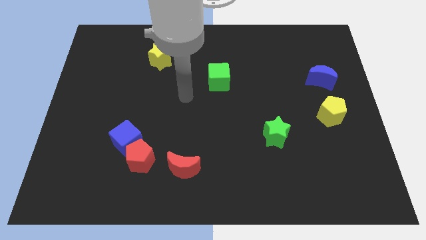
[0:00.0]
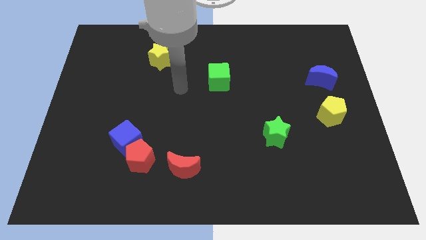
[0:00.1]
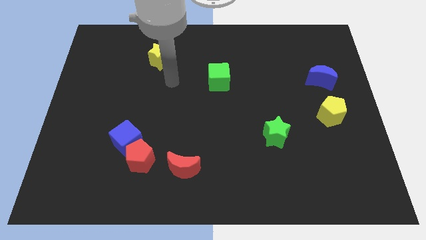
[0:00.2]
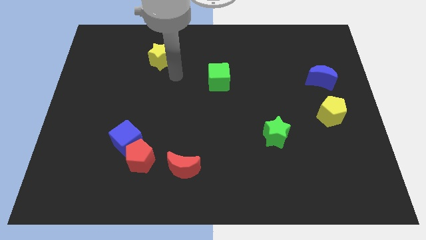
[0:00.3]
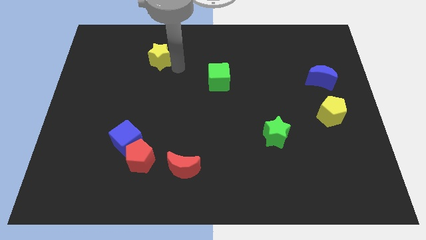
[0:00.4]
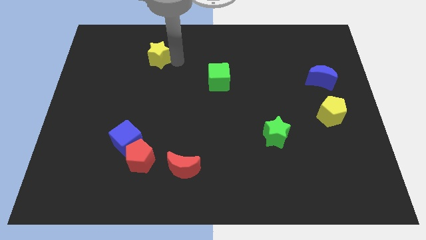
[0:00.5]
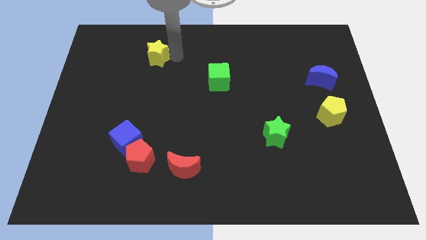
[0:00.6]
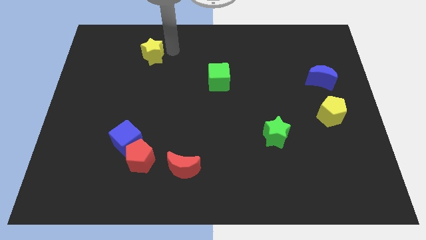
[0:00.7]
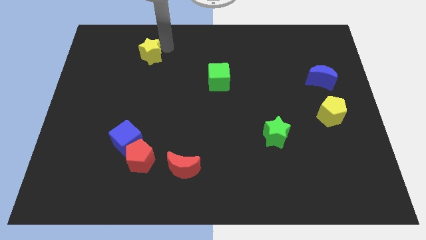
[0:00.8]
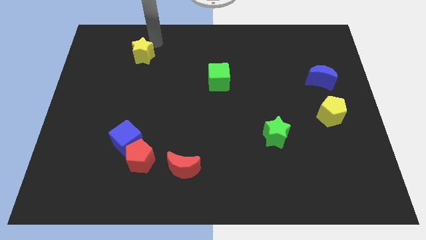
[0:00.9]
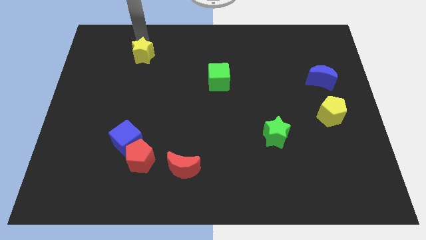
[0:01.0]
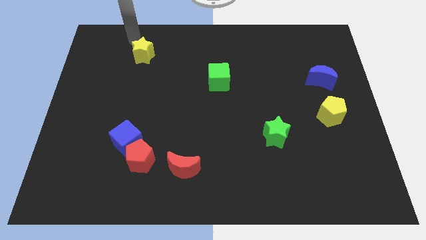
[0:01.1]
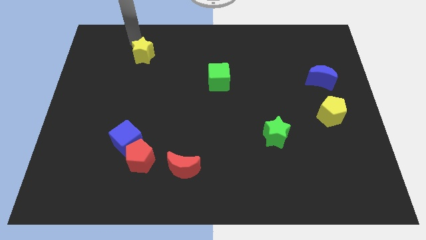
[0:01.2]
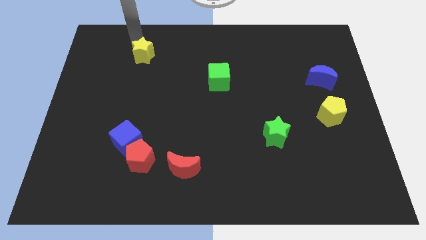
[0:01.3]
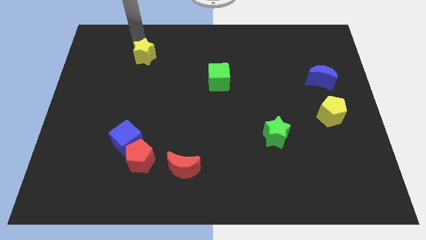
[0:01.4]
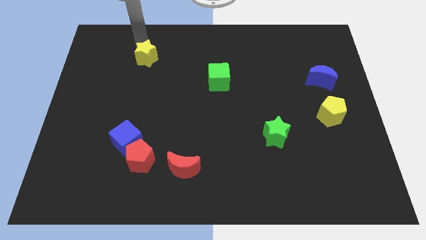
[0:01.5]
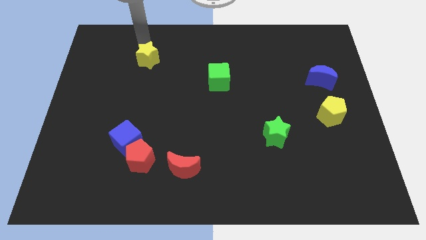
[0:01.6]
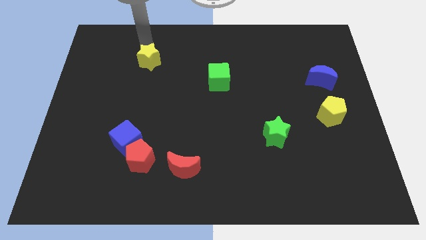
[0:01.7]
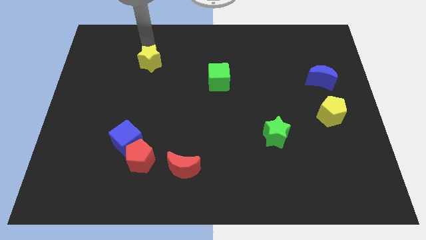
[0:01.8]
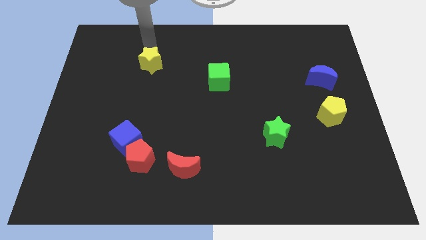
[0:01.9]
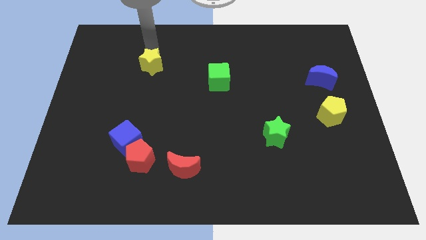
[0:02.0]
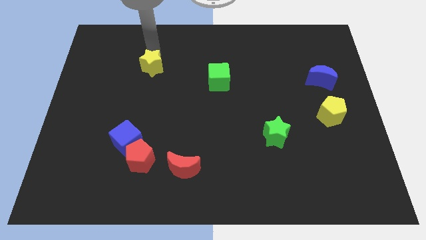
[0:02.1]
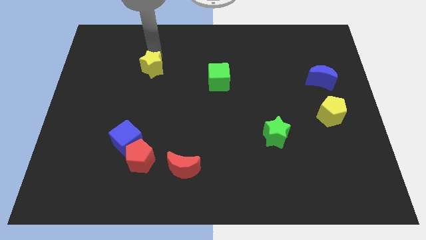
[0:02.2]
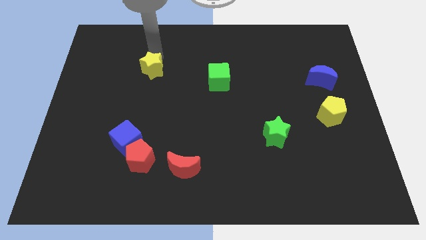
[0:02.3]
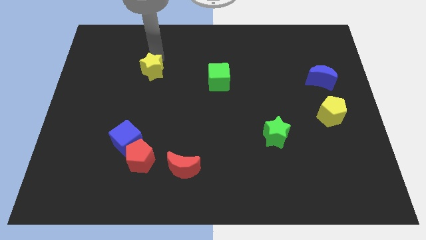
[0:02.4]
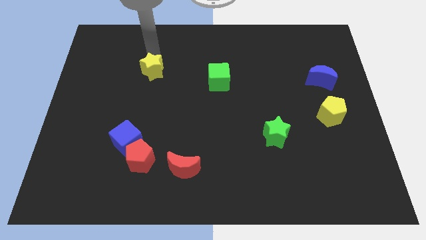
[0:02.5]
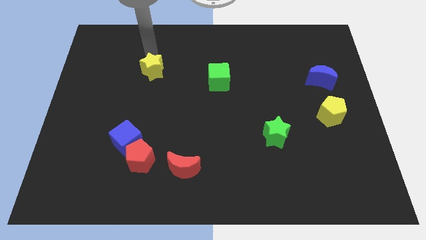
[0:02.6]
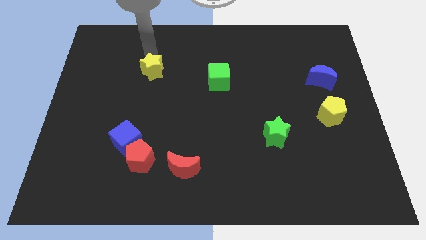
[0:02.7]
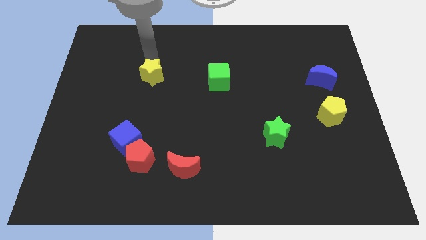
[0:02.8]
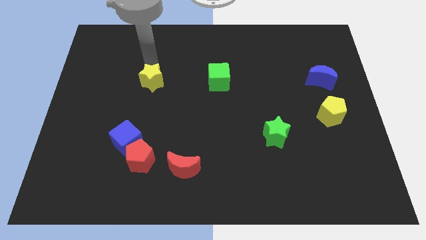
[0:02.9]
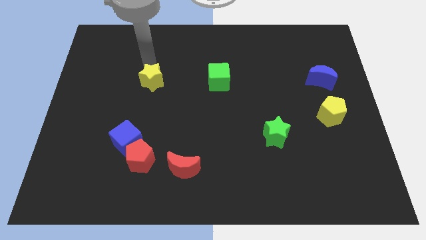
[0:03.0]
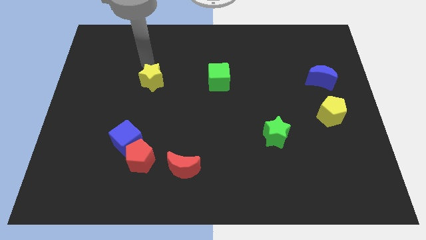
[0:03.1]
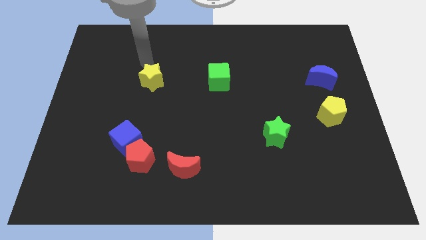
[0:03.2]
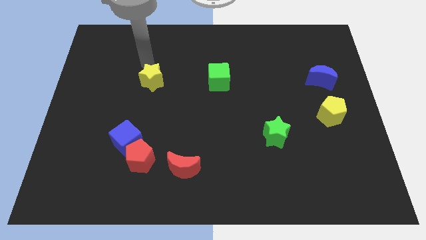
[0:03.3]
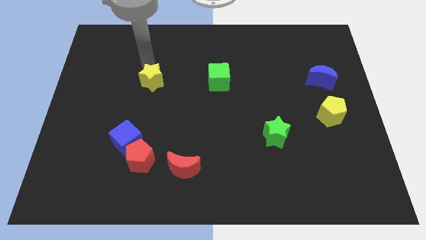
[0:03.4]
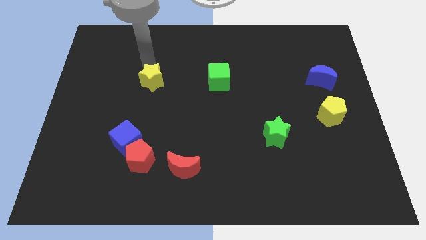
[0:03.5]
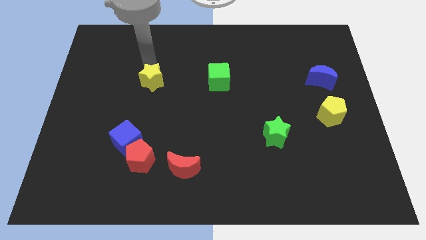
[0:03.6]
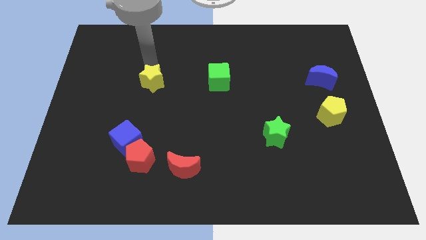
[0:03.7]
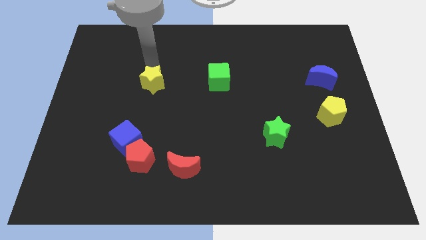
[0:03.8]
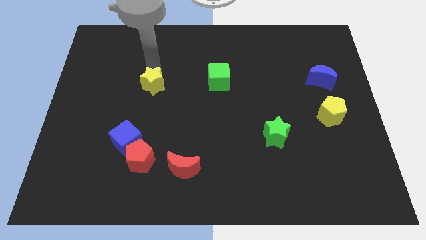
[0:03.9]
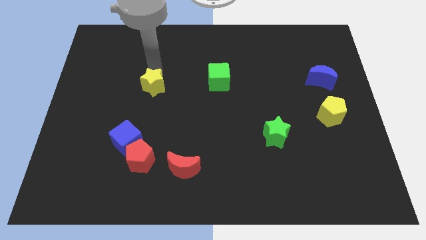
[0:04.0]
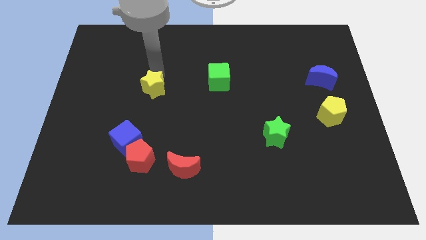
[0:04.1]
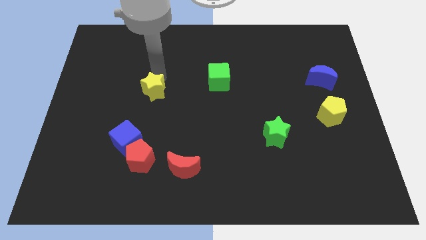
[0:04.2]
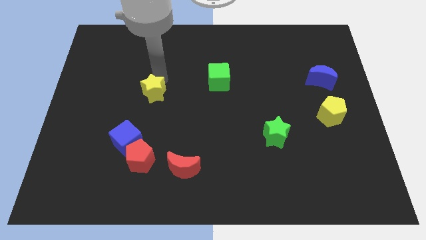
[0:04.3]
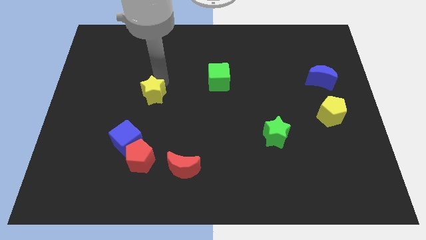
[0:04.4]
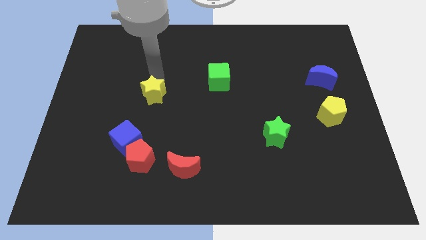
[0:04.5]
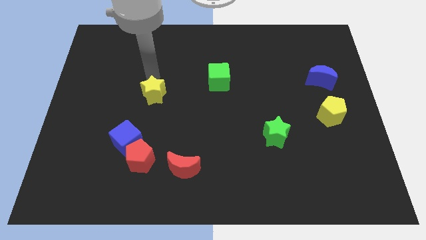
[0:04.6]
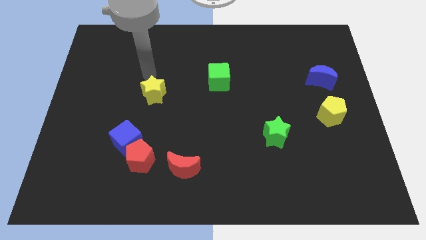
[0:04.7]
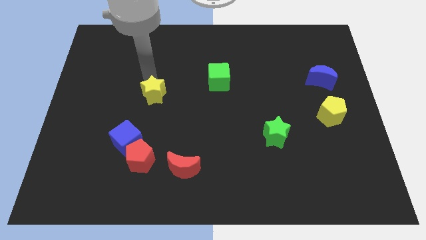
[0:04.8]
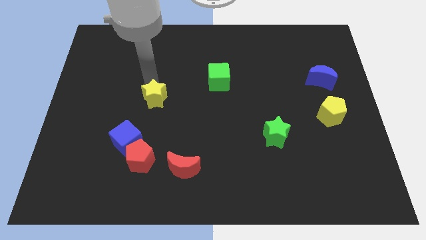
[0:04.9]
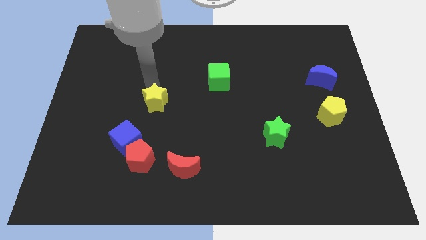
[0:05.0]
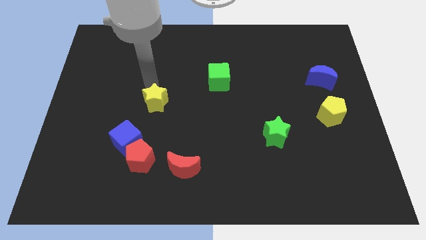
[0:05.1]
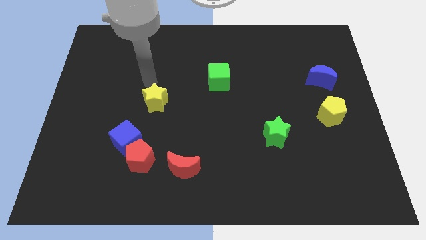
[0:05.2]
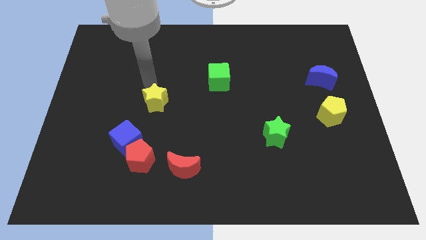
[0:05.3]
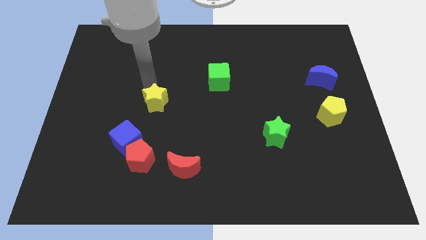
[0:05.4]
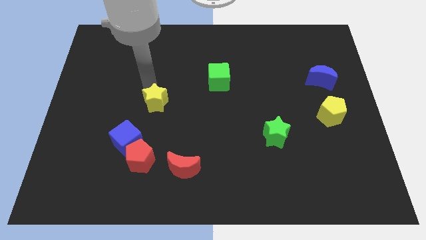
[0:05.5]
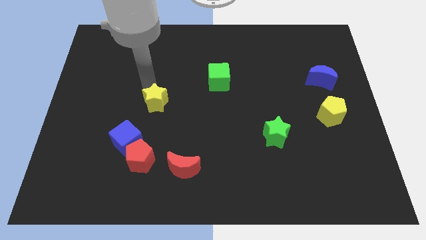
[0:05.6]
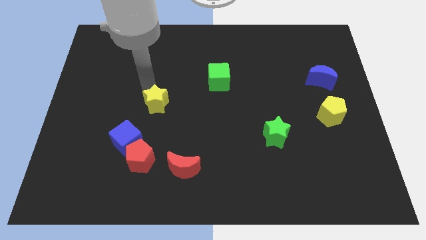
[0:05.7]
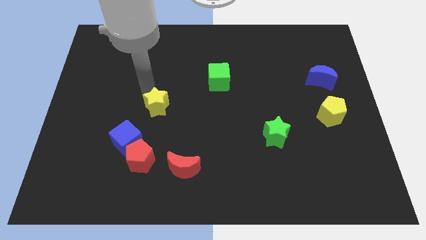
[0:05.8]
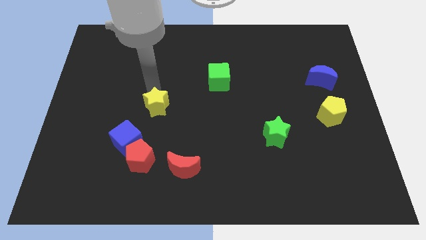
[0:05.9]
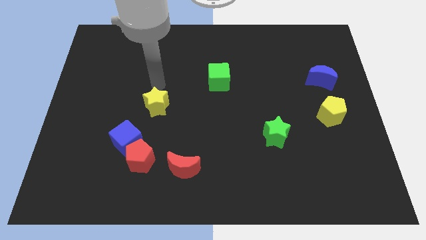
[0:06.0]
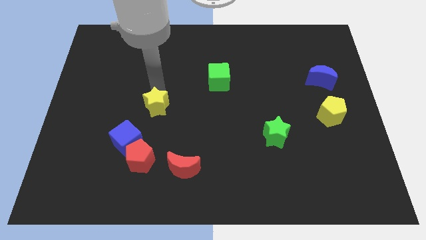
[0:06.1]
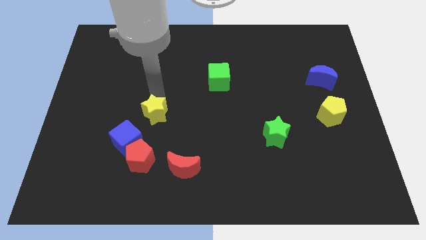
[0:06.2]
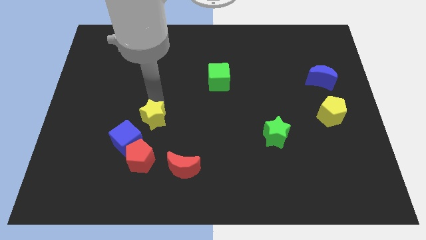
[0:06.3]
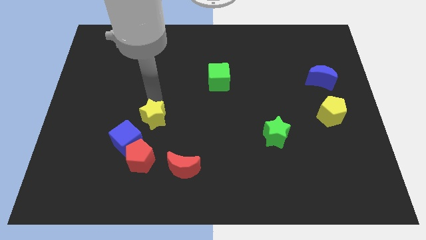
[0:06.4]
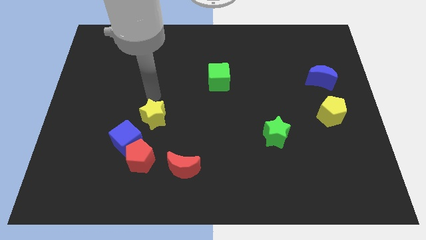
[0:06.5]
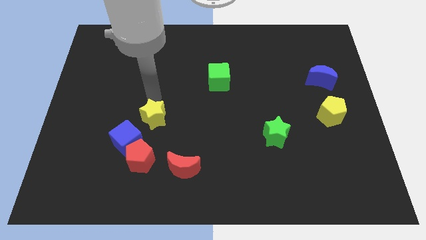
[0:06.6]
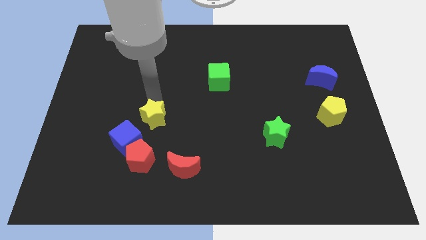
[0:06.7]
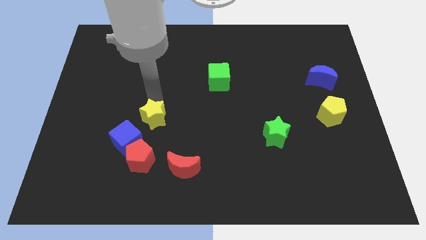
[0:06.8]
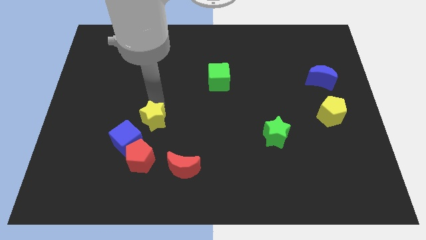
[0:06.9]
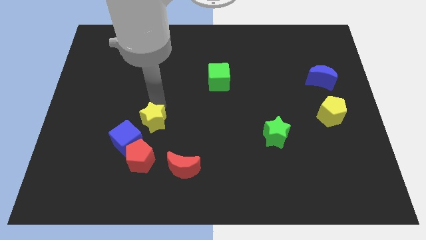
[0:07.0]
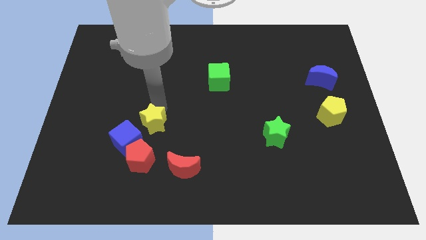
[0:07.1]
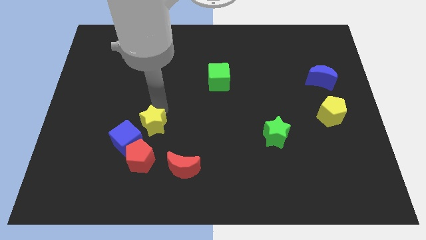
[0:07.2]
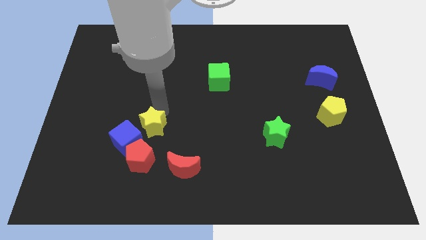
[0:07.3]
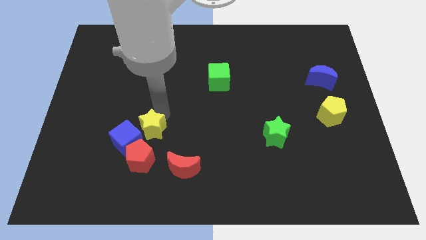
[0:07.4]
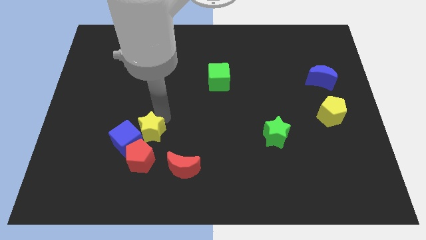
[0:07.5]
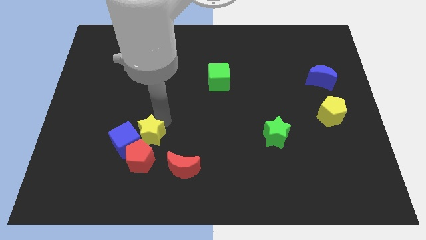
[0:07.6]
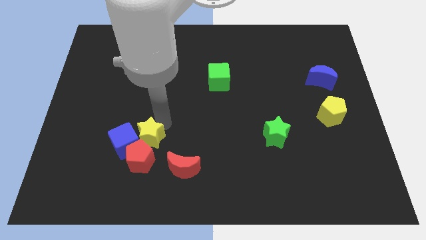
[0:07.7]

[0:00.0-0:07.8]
slide the yellow star next to the red pentagon
